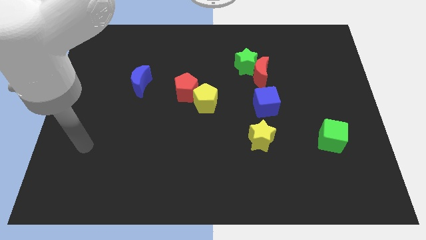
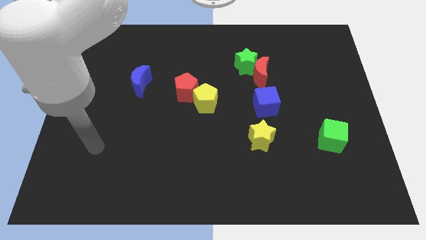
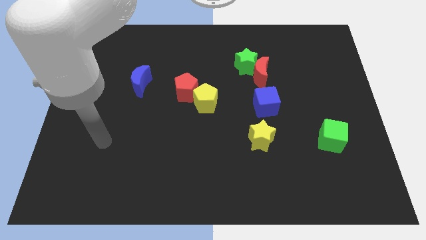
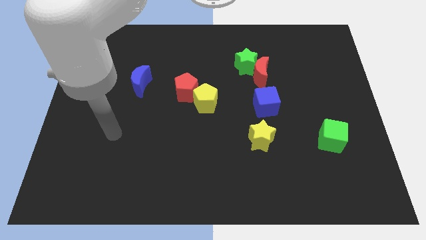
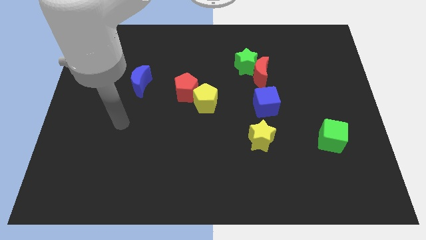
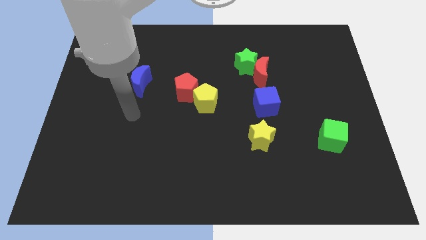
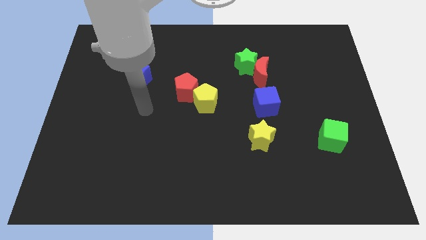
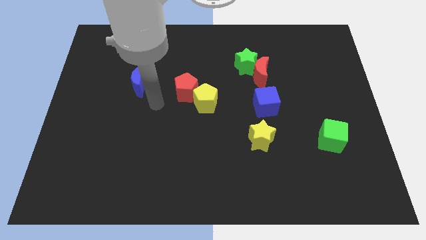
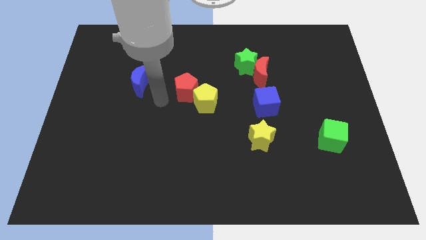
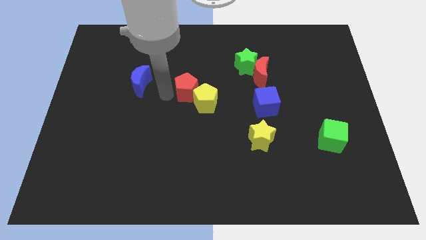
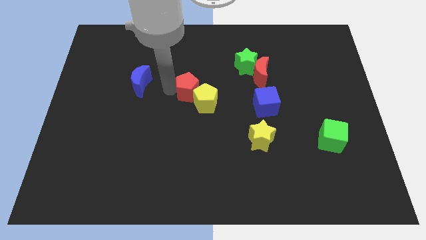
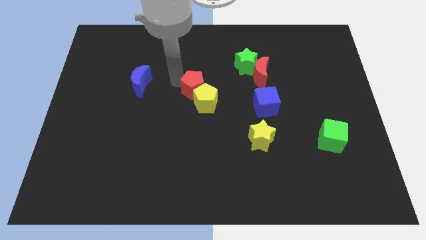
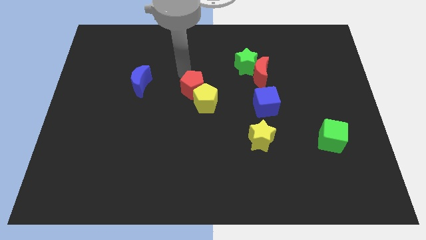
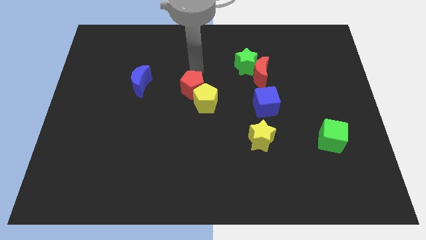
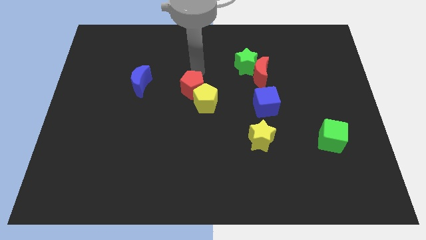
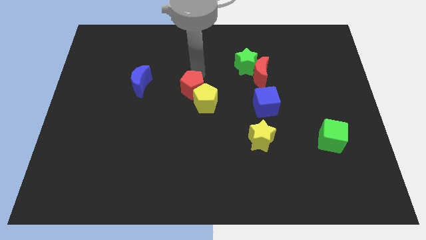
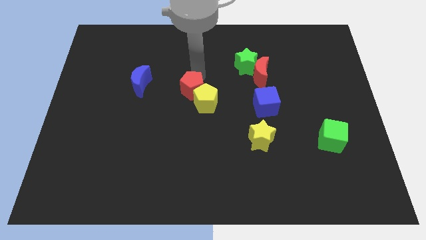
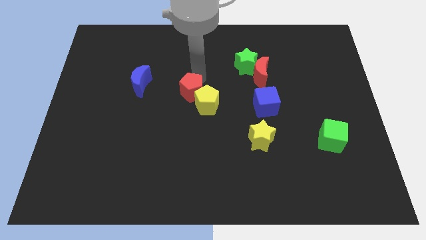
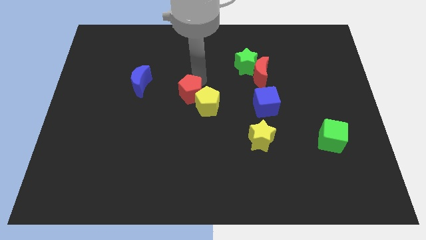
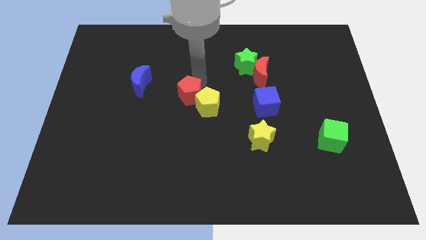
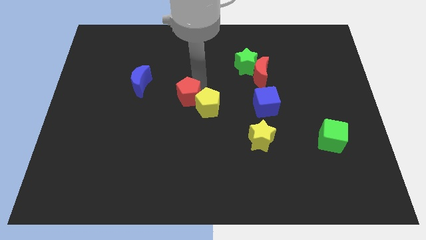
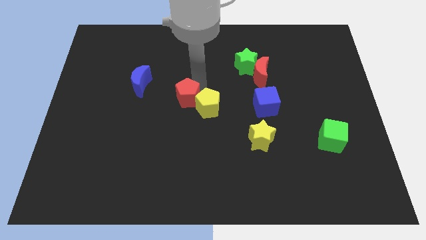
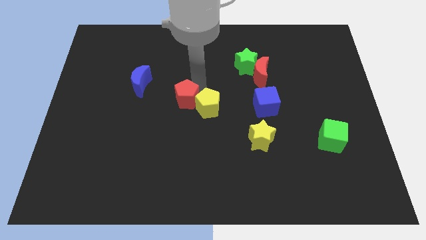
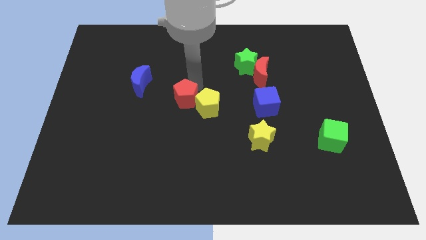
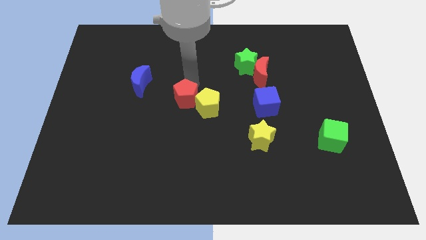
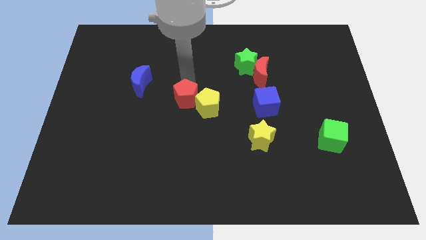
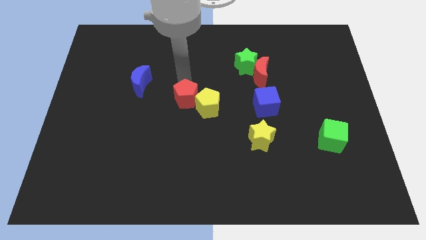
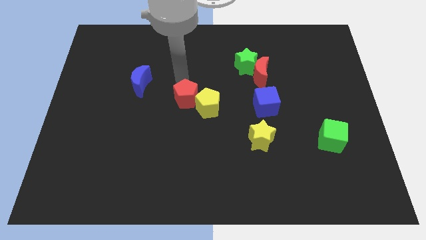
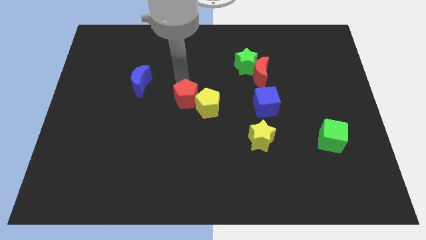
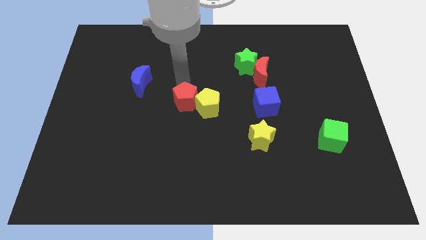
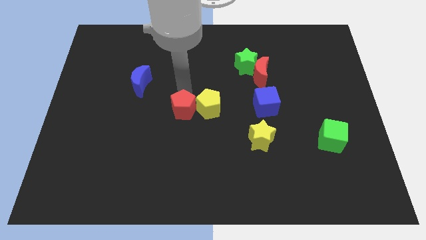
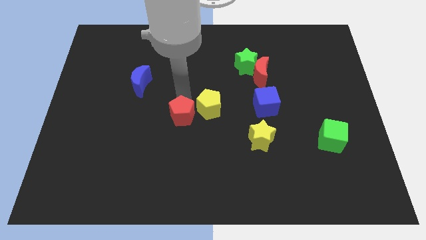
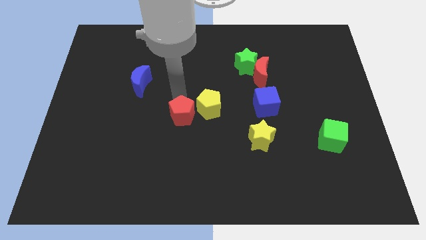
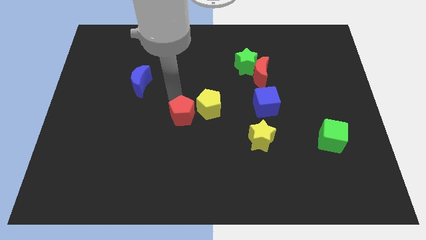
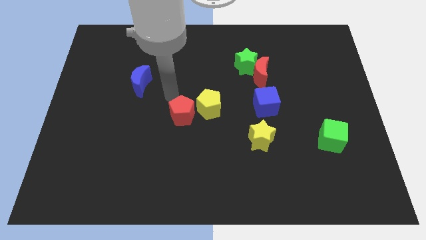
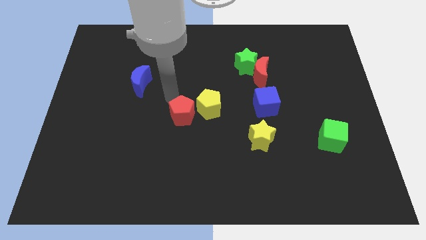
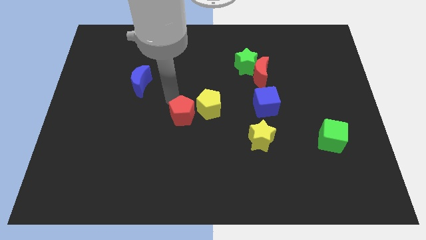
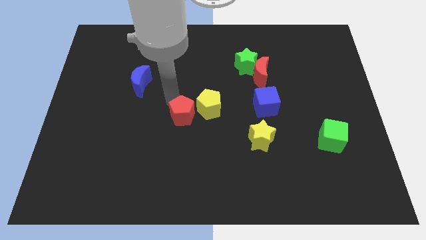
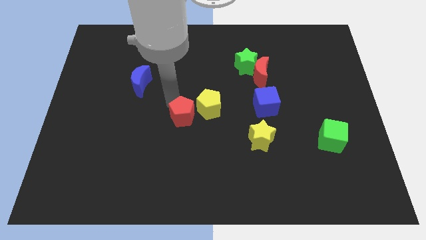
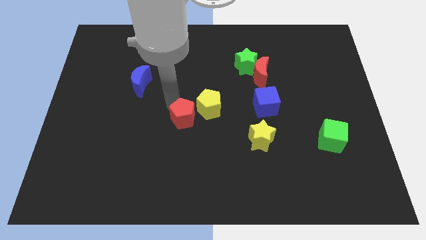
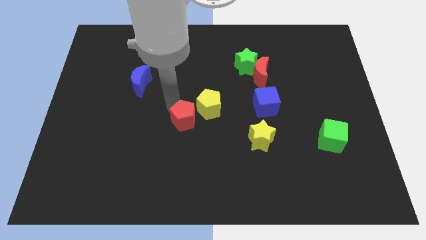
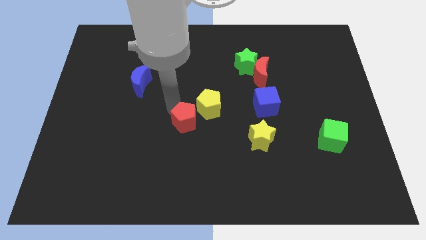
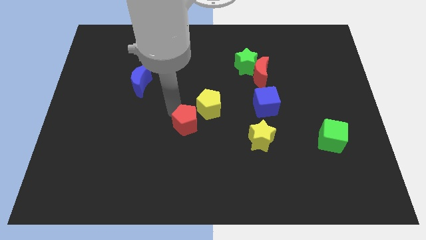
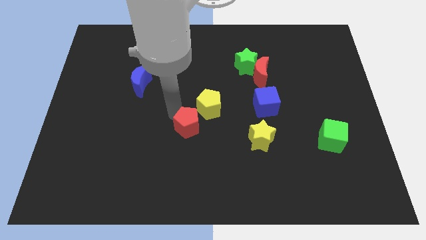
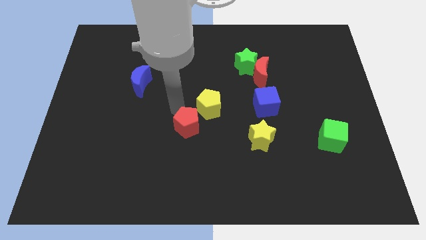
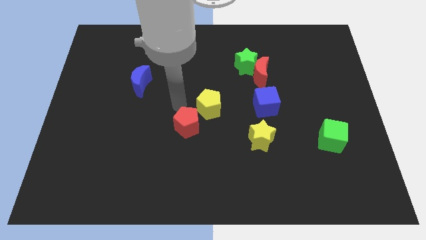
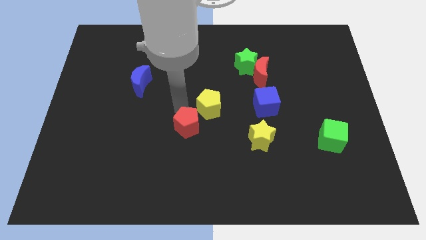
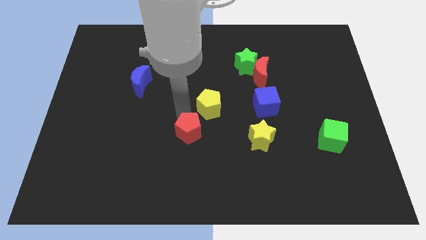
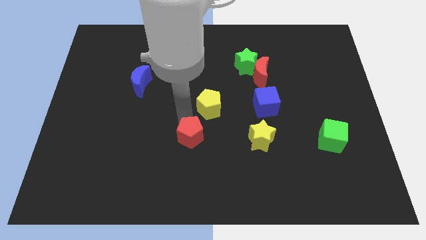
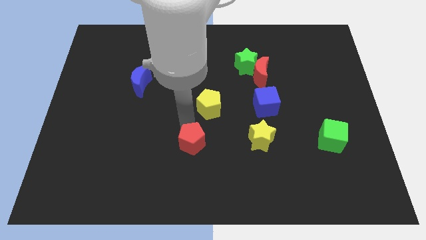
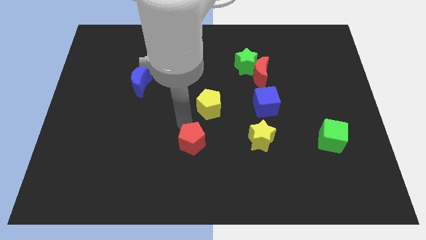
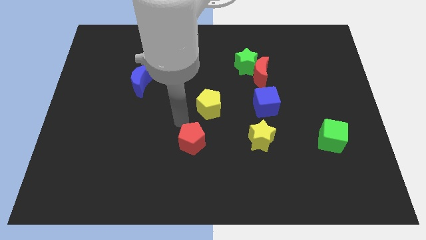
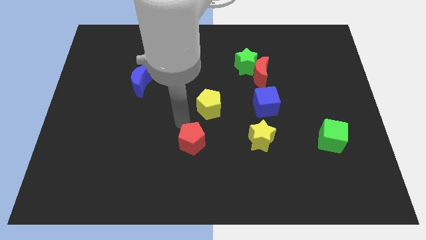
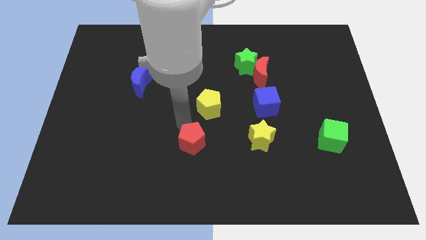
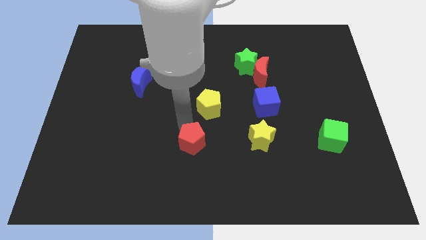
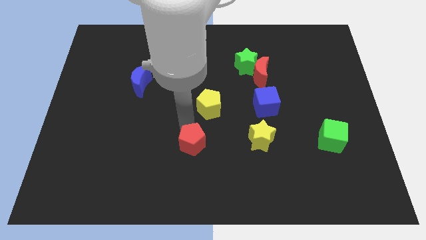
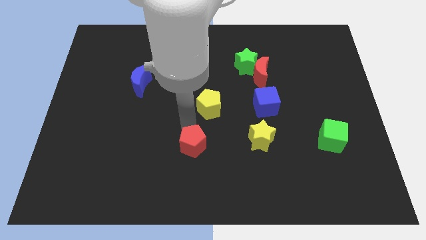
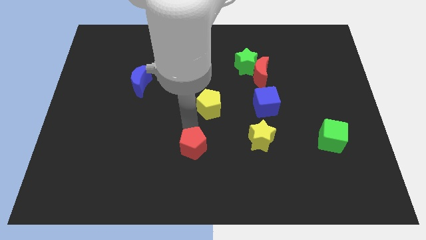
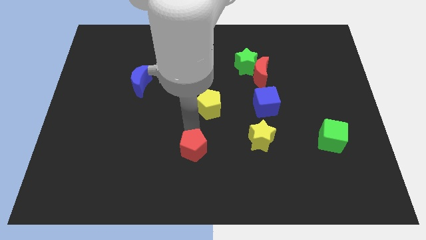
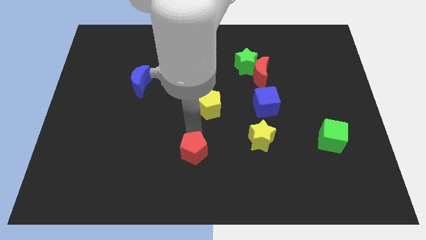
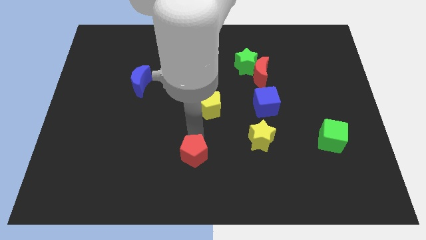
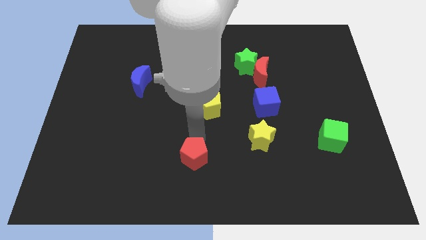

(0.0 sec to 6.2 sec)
move the red pentagon to the bottom

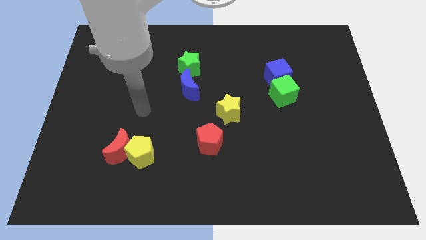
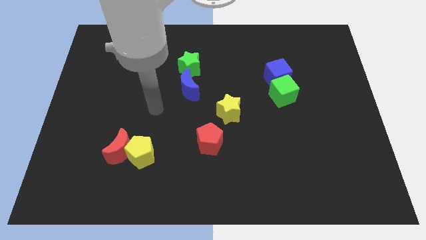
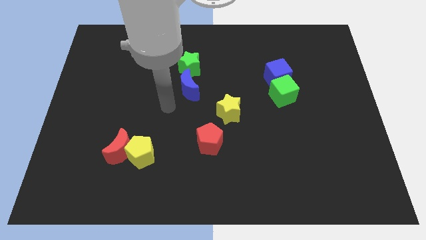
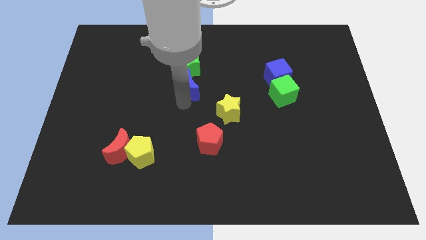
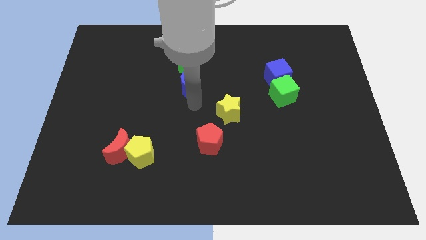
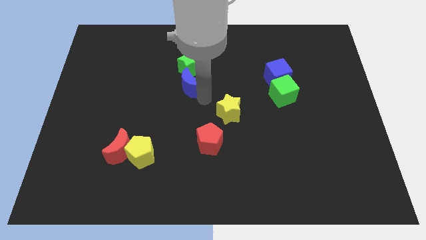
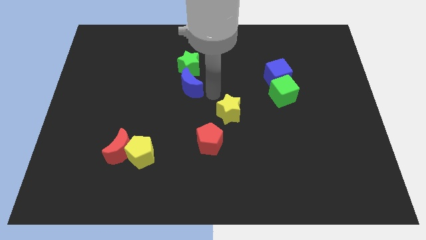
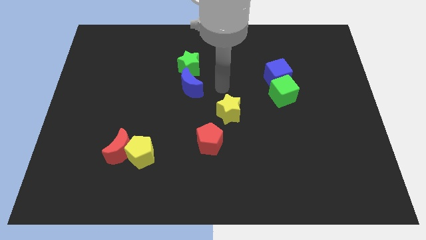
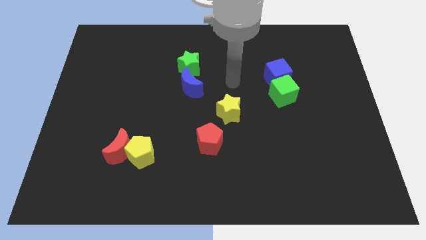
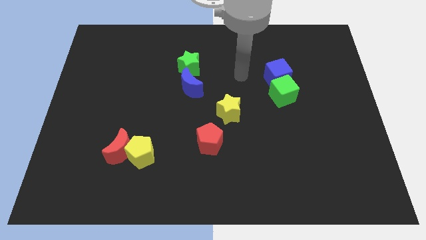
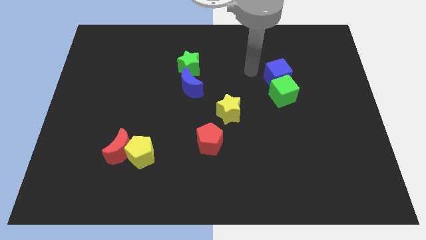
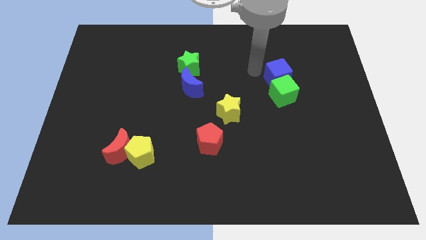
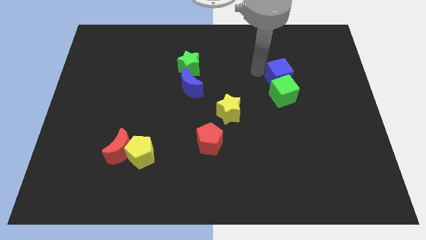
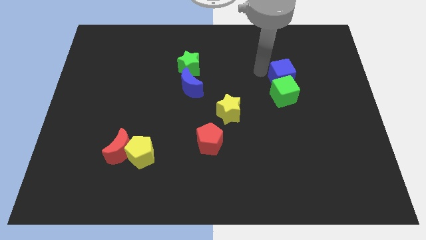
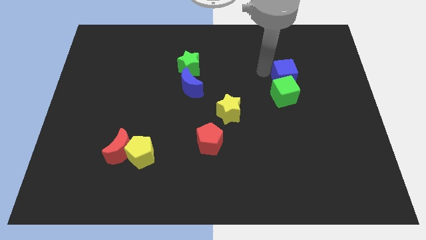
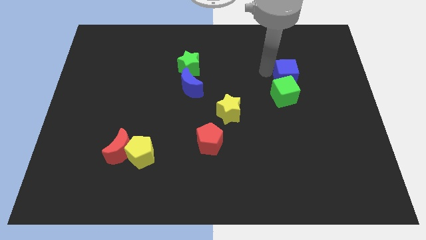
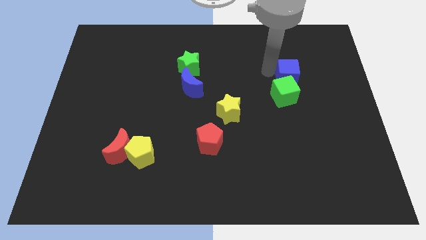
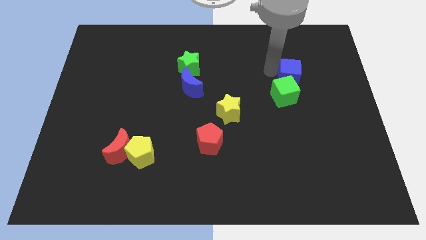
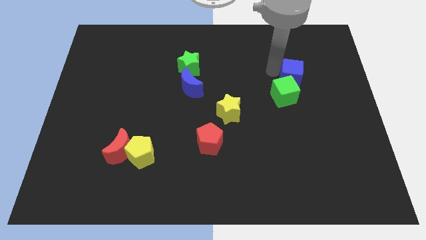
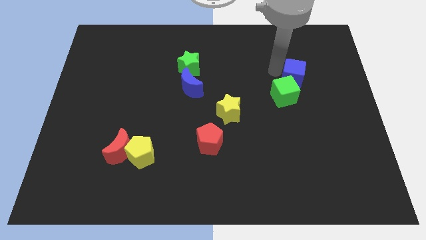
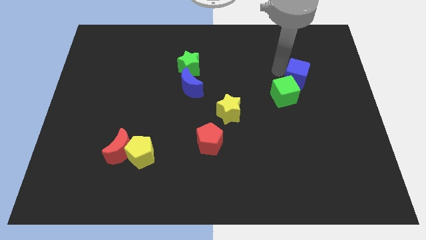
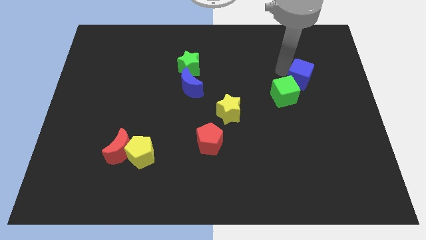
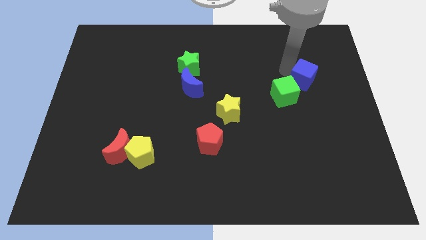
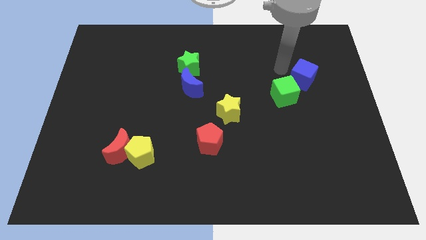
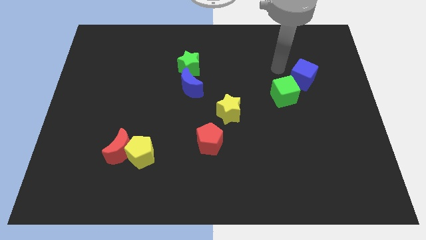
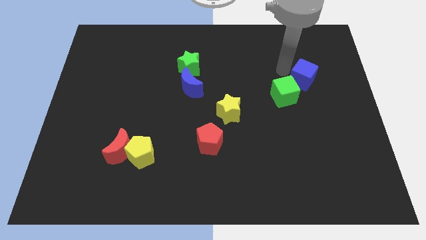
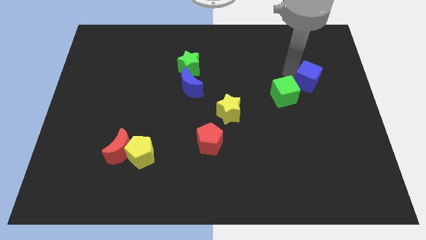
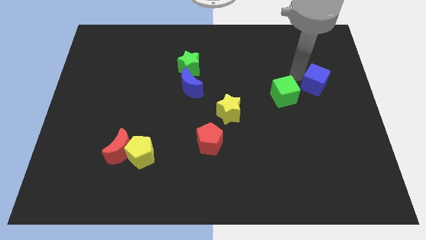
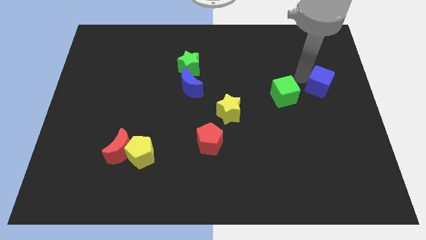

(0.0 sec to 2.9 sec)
slide the blue cube to the center right
